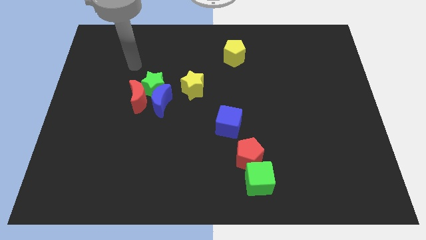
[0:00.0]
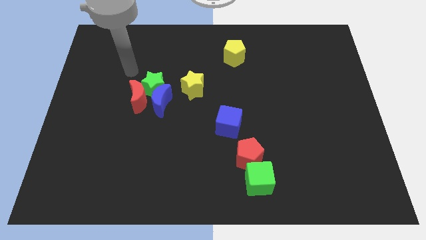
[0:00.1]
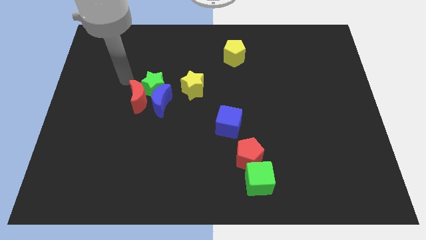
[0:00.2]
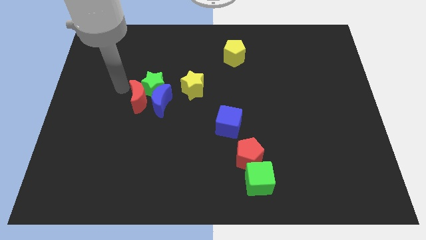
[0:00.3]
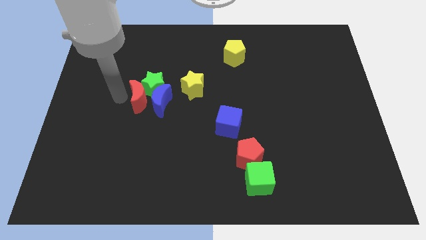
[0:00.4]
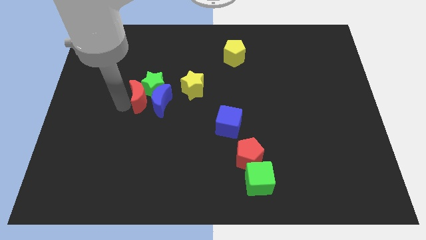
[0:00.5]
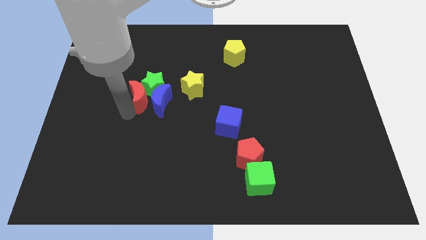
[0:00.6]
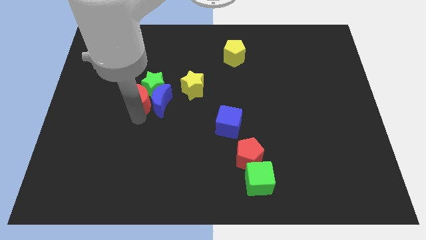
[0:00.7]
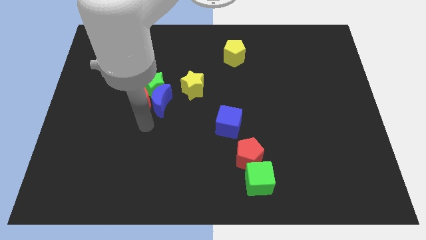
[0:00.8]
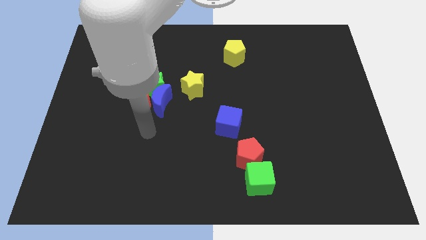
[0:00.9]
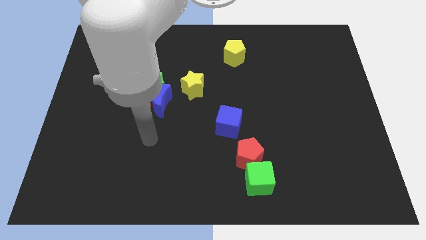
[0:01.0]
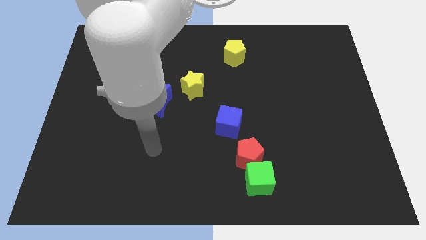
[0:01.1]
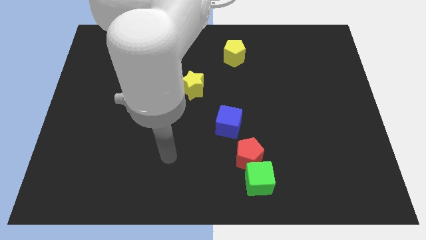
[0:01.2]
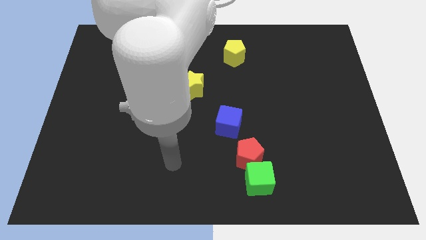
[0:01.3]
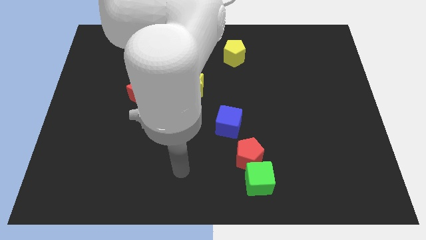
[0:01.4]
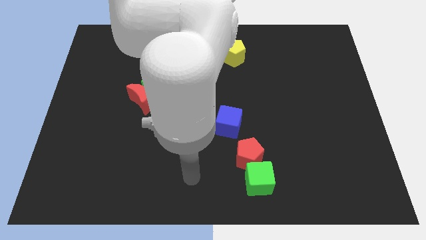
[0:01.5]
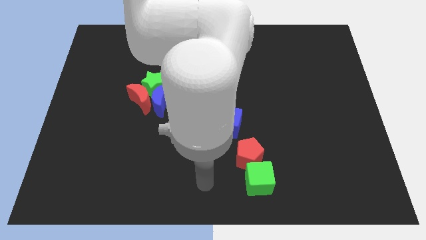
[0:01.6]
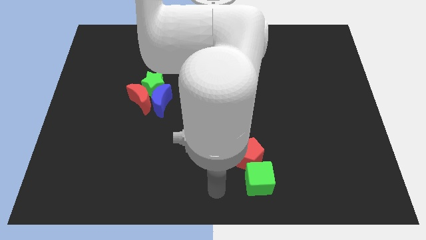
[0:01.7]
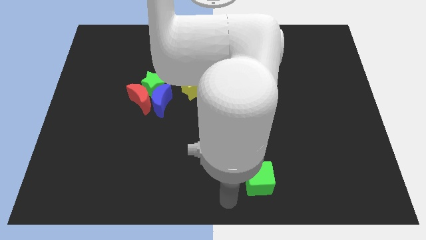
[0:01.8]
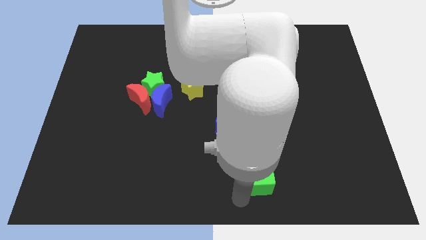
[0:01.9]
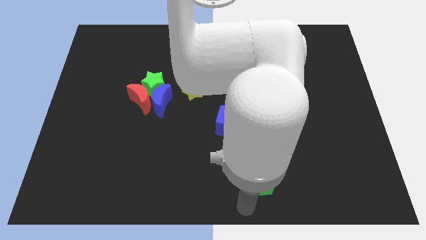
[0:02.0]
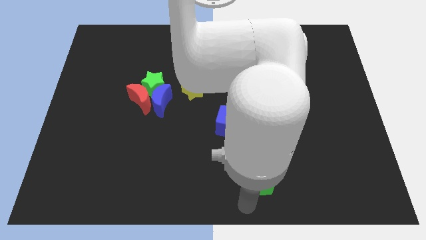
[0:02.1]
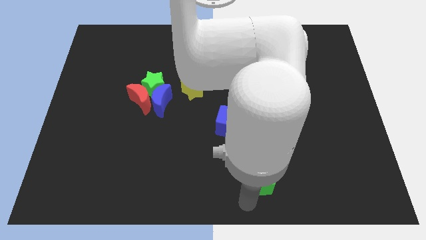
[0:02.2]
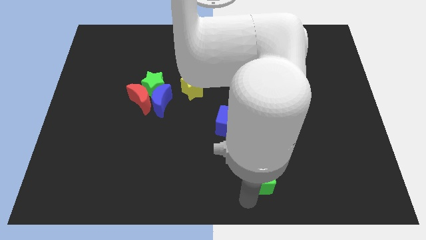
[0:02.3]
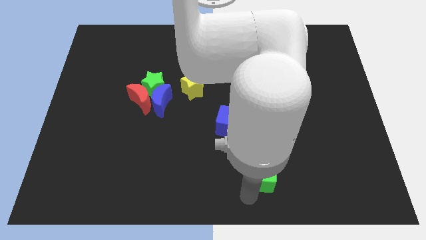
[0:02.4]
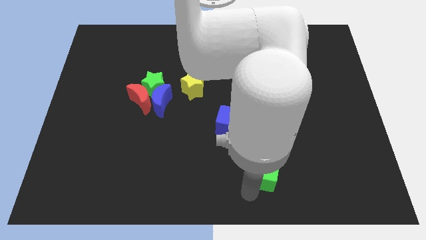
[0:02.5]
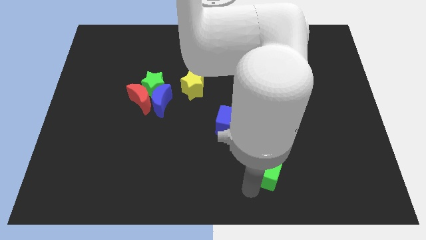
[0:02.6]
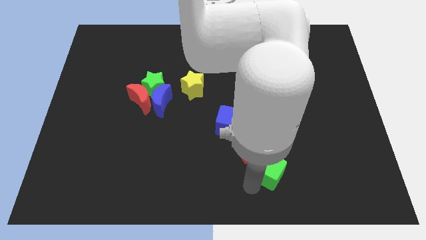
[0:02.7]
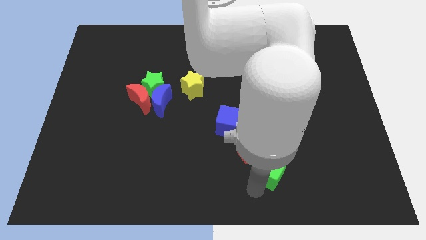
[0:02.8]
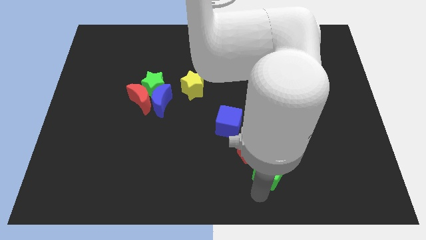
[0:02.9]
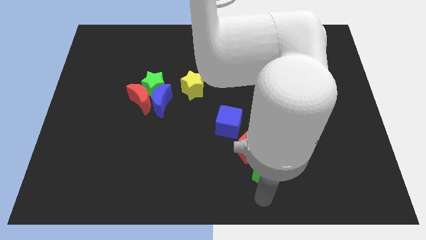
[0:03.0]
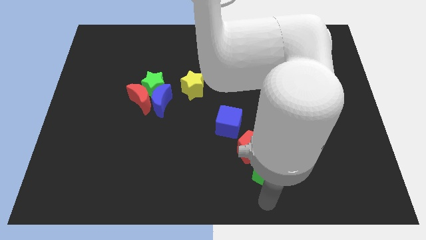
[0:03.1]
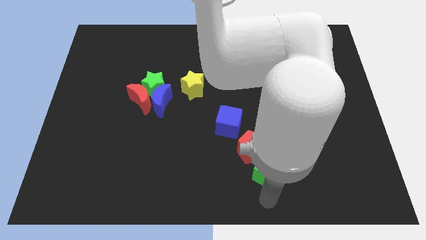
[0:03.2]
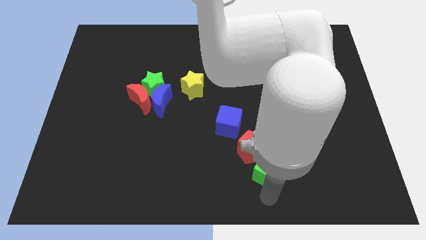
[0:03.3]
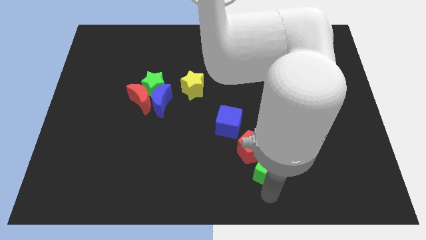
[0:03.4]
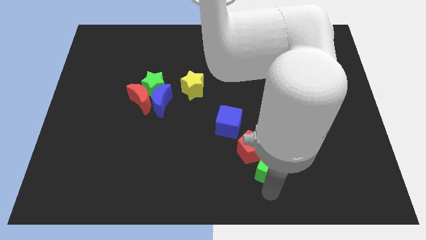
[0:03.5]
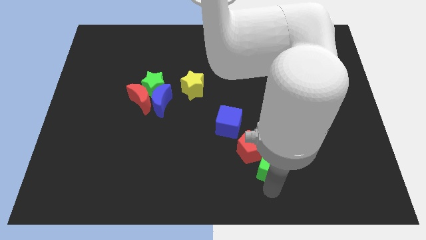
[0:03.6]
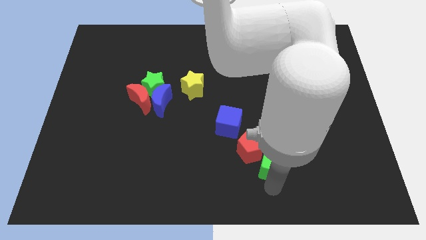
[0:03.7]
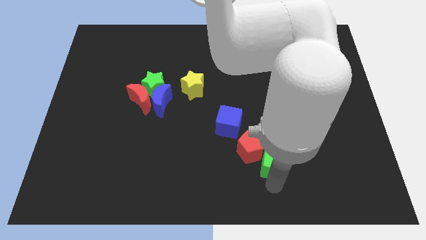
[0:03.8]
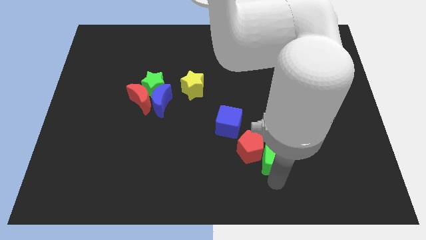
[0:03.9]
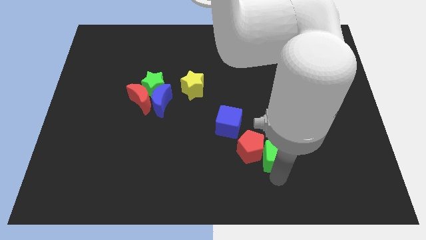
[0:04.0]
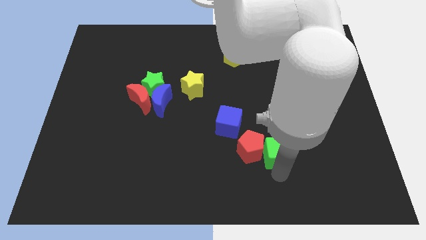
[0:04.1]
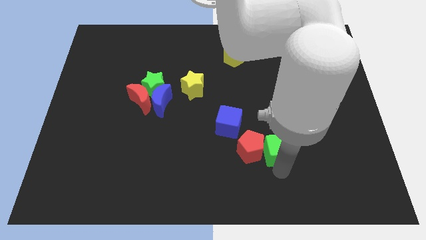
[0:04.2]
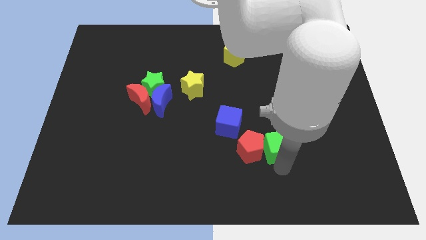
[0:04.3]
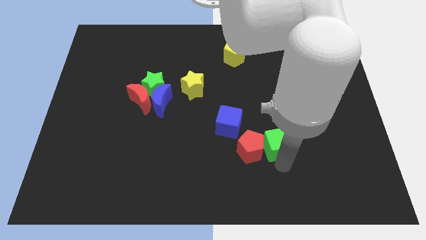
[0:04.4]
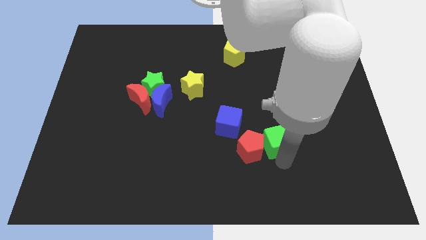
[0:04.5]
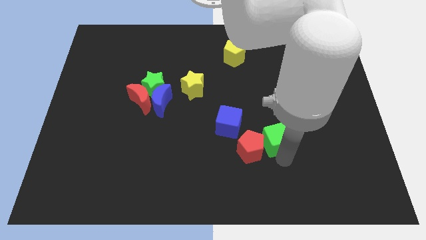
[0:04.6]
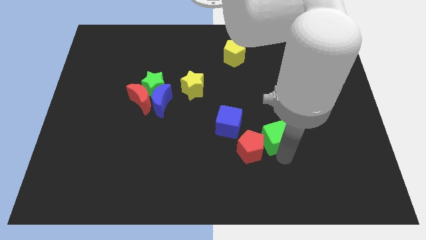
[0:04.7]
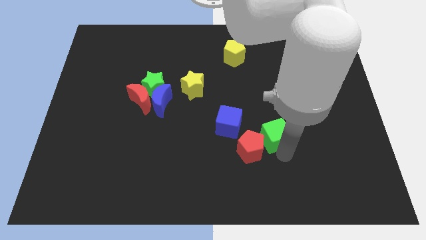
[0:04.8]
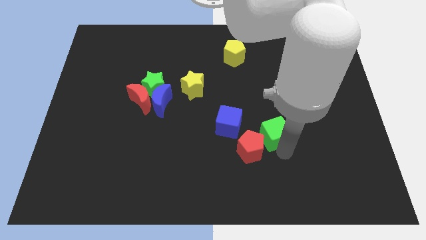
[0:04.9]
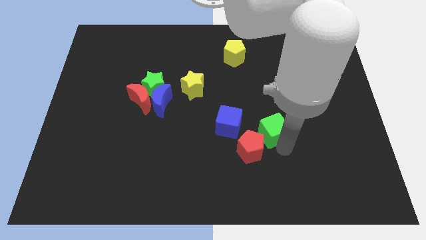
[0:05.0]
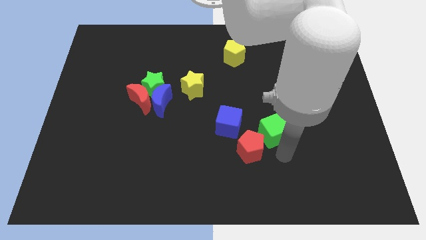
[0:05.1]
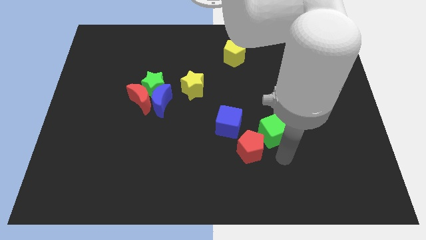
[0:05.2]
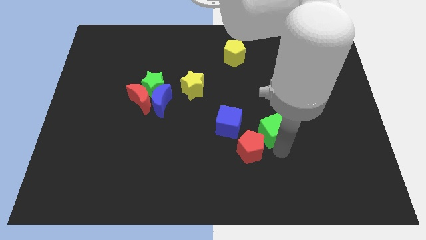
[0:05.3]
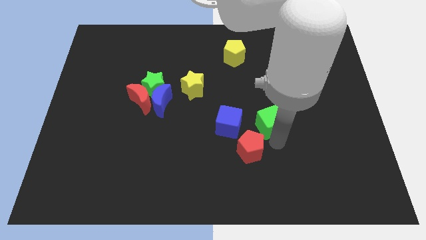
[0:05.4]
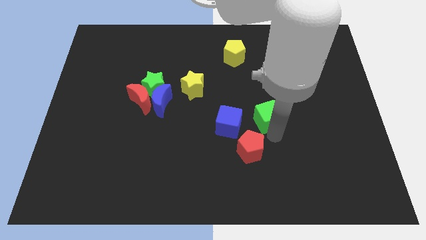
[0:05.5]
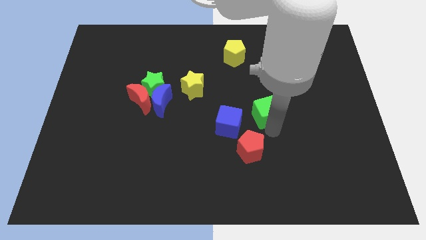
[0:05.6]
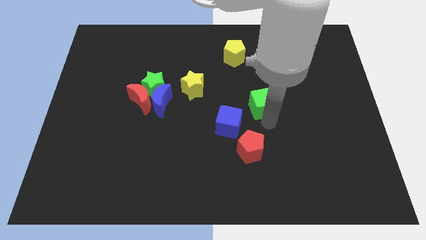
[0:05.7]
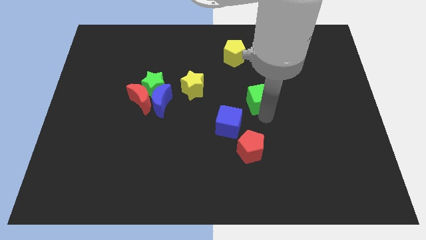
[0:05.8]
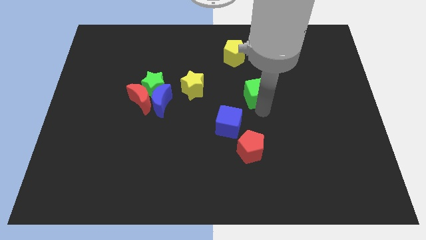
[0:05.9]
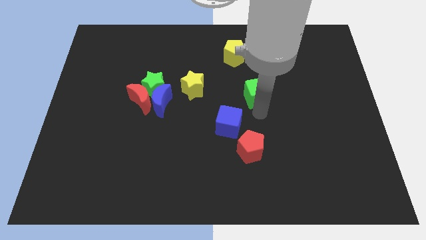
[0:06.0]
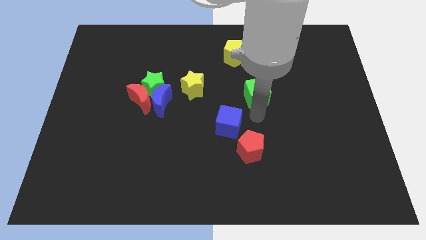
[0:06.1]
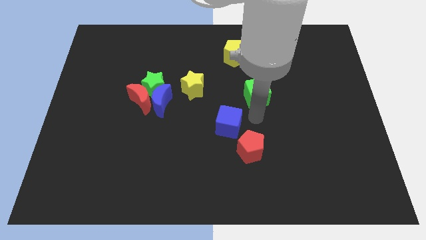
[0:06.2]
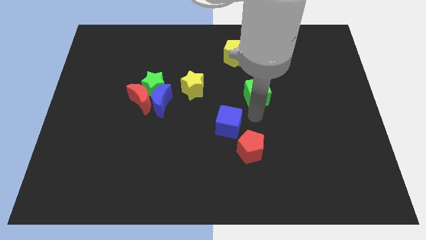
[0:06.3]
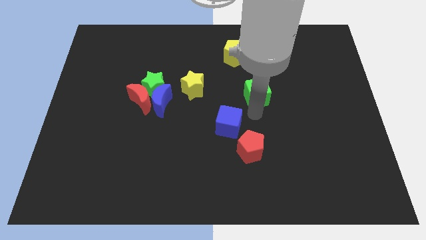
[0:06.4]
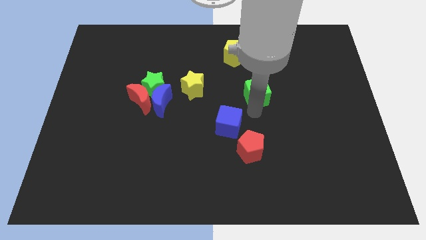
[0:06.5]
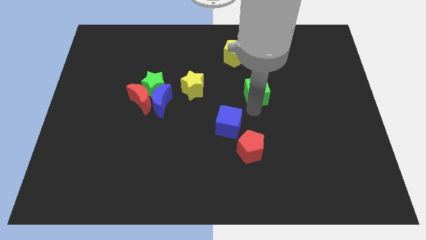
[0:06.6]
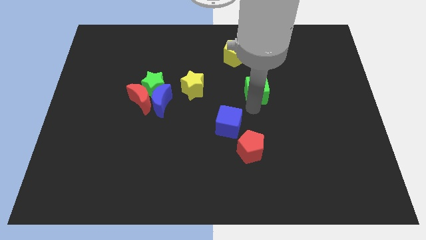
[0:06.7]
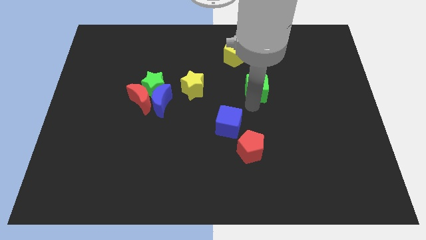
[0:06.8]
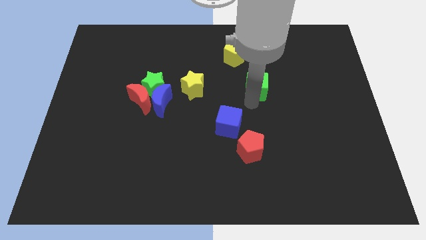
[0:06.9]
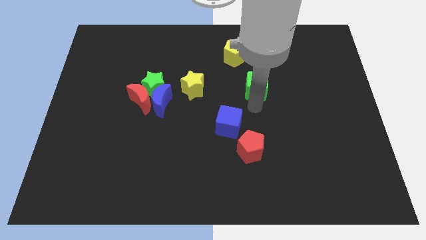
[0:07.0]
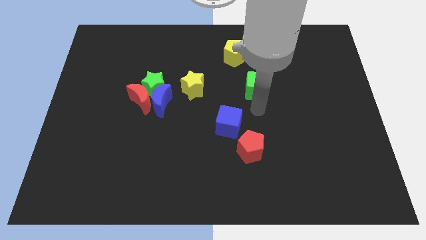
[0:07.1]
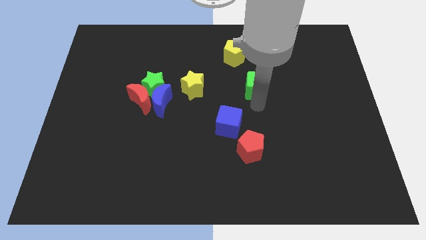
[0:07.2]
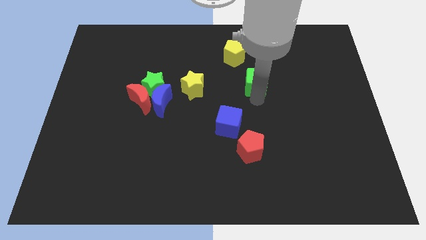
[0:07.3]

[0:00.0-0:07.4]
slide the green cube to the bottom right side of the yellow pentagon
